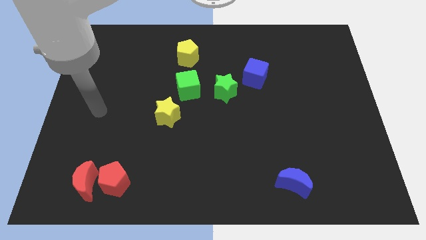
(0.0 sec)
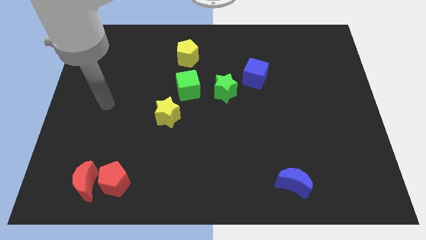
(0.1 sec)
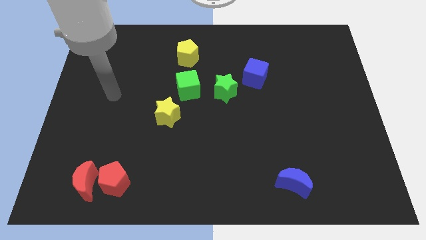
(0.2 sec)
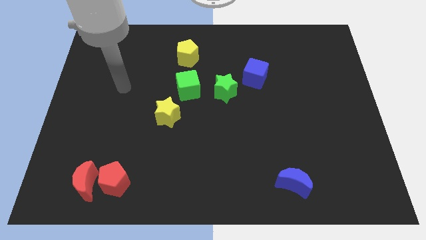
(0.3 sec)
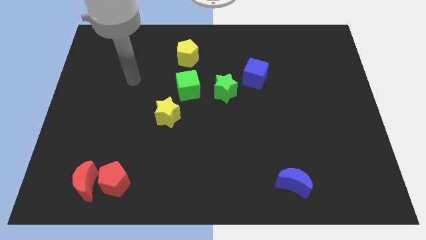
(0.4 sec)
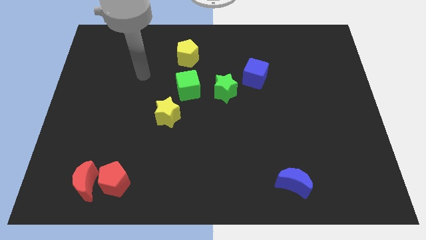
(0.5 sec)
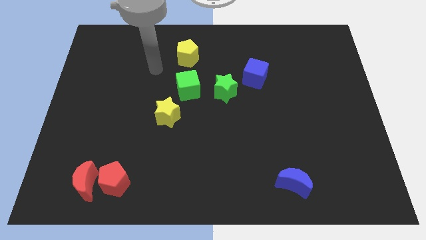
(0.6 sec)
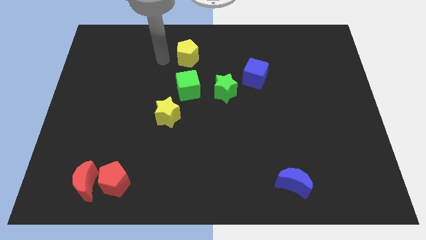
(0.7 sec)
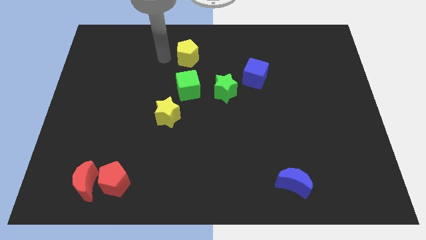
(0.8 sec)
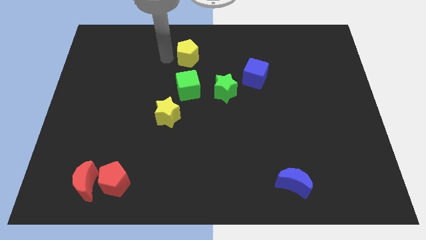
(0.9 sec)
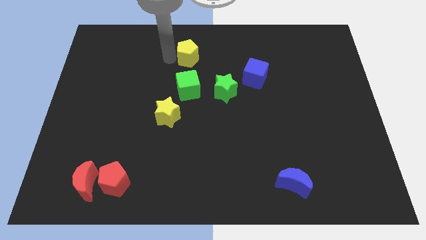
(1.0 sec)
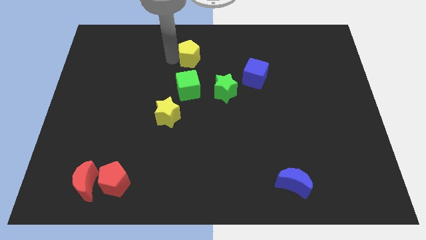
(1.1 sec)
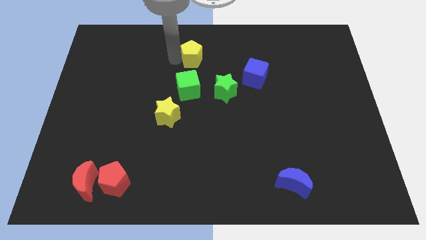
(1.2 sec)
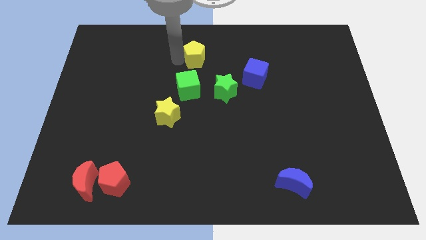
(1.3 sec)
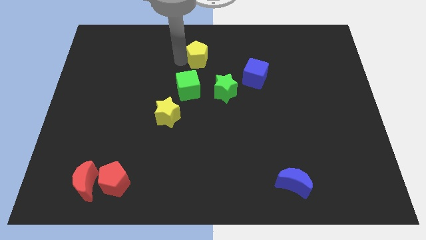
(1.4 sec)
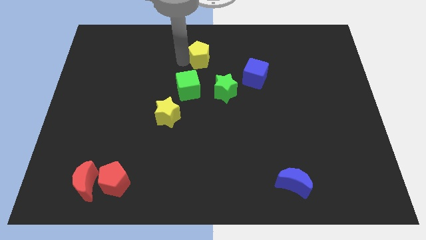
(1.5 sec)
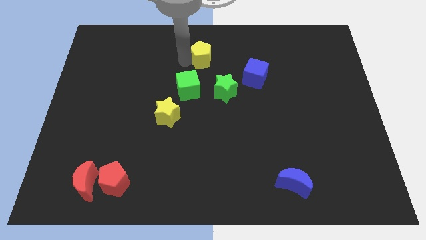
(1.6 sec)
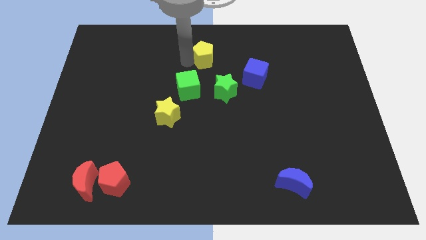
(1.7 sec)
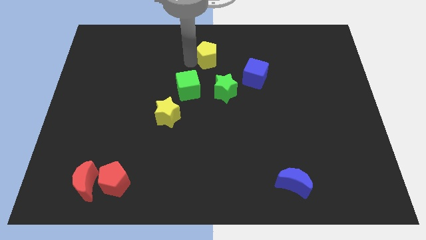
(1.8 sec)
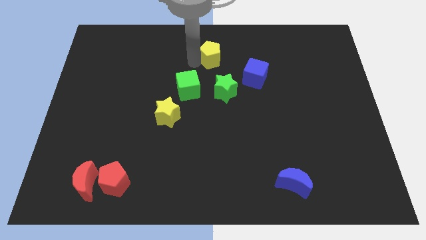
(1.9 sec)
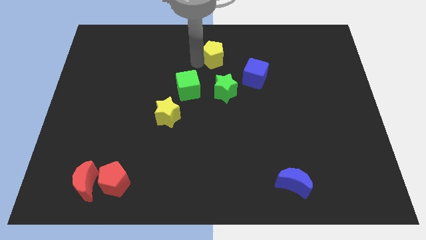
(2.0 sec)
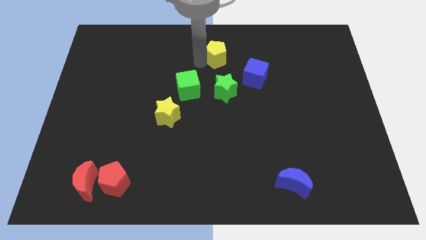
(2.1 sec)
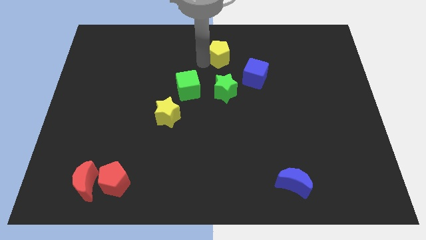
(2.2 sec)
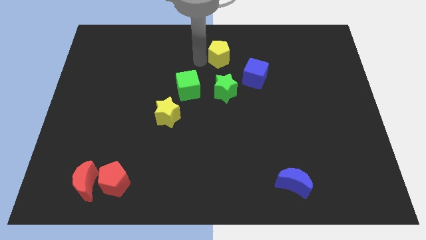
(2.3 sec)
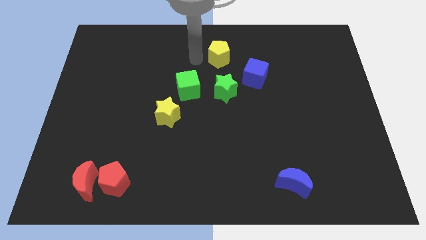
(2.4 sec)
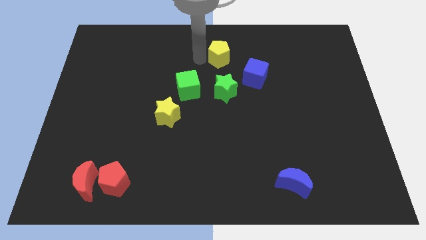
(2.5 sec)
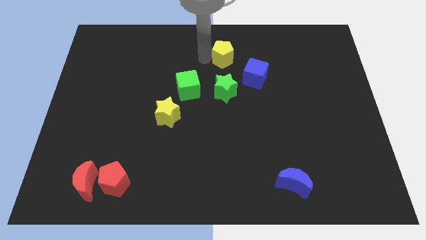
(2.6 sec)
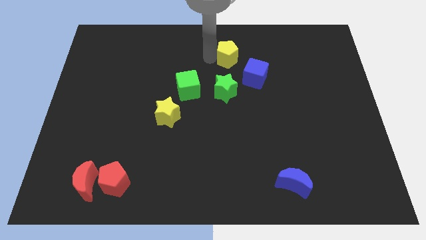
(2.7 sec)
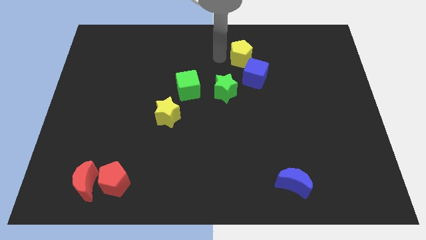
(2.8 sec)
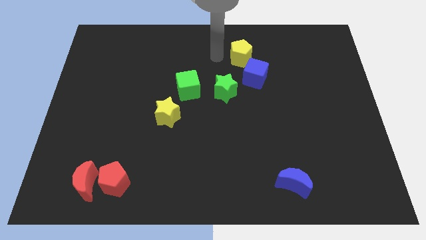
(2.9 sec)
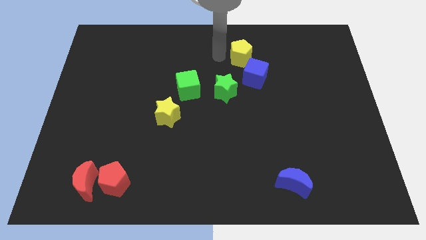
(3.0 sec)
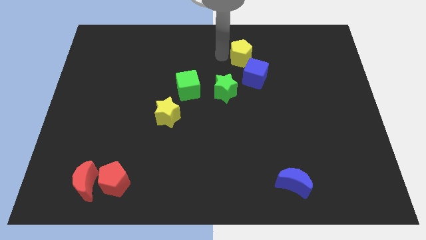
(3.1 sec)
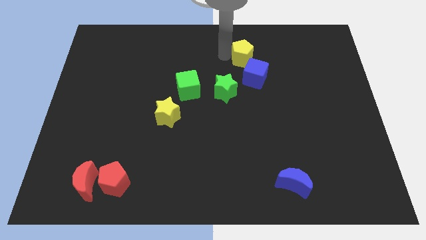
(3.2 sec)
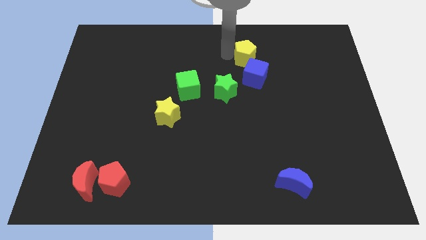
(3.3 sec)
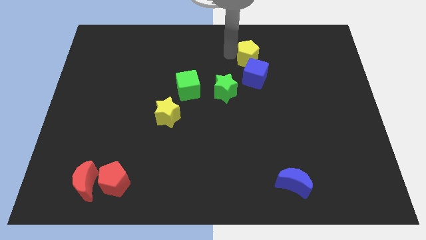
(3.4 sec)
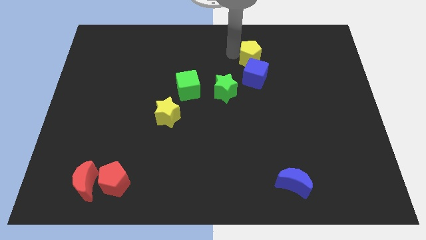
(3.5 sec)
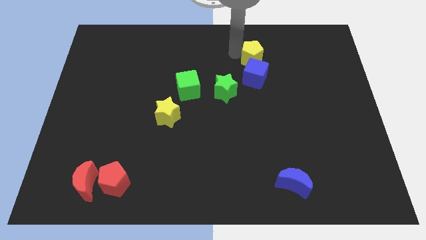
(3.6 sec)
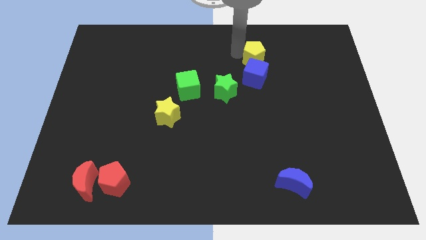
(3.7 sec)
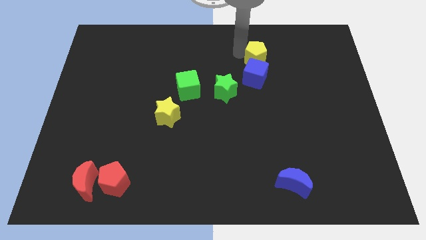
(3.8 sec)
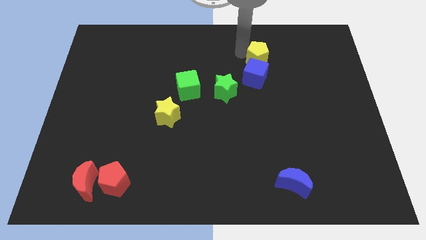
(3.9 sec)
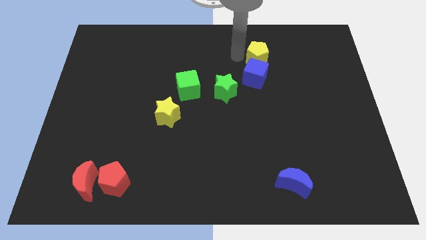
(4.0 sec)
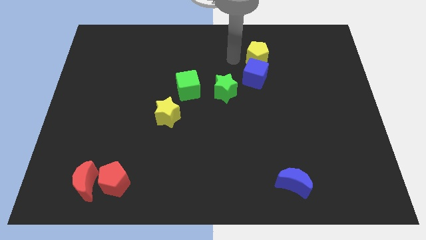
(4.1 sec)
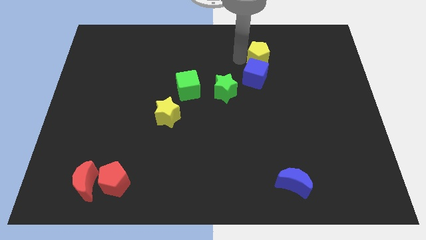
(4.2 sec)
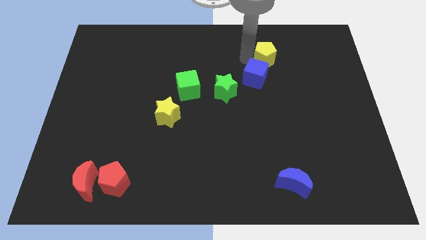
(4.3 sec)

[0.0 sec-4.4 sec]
push the yellow pentagon right

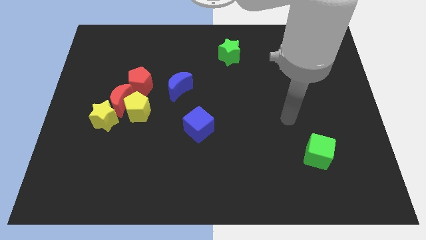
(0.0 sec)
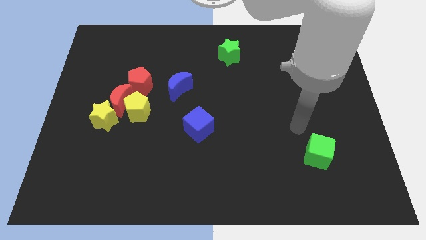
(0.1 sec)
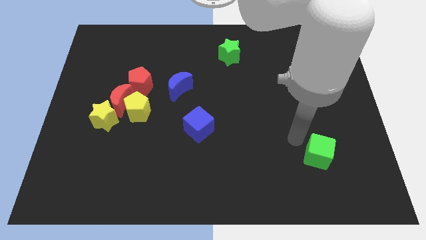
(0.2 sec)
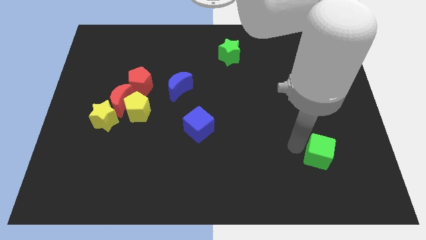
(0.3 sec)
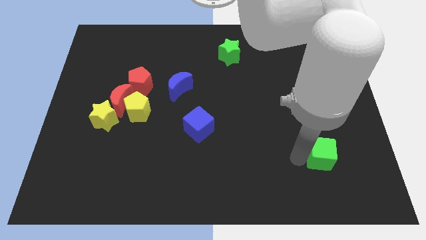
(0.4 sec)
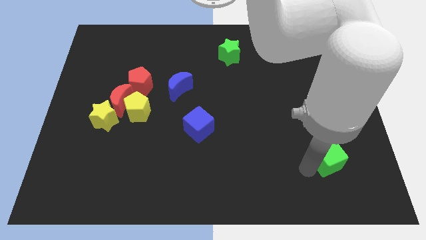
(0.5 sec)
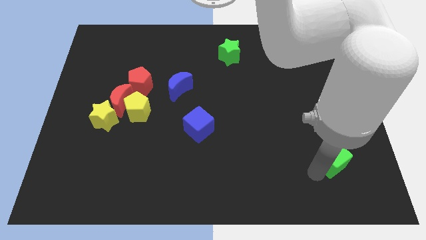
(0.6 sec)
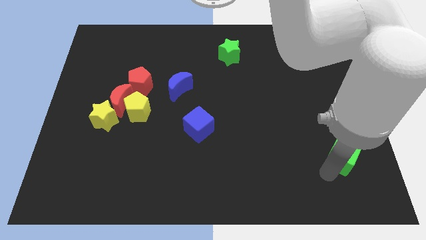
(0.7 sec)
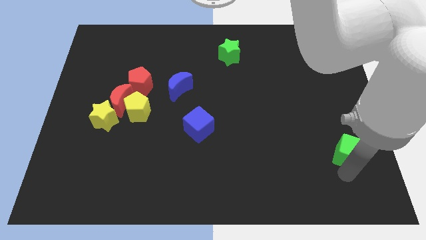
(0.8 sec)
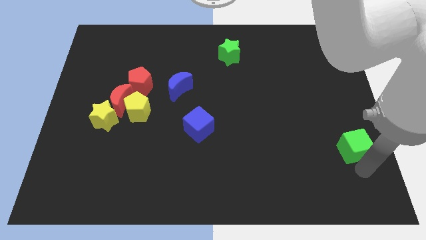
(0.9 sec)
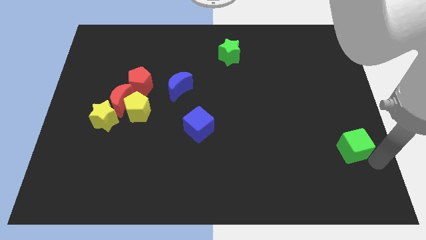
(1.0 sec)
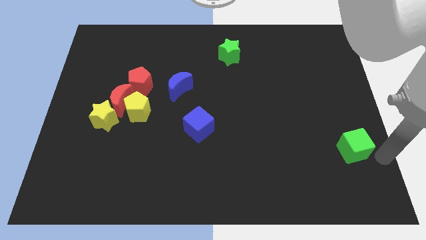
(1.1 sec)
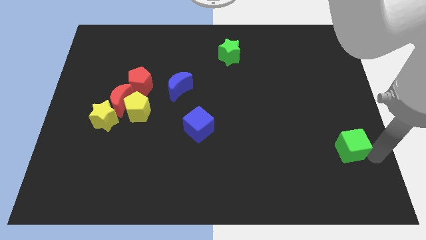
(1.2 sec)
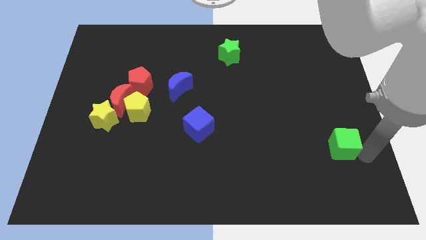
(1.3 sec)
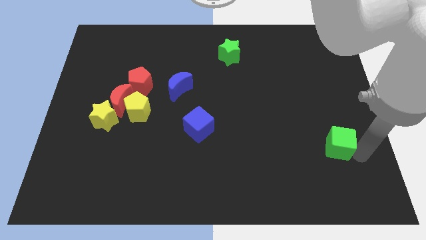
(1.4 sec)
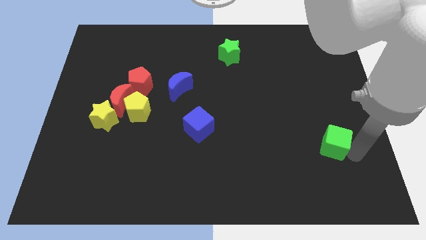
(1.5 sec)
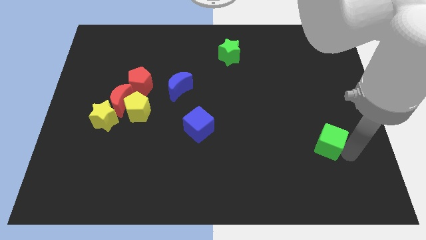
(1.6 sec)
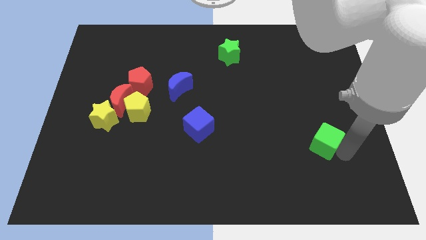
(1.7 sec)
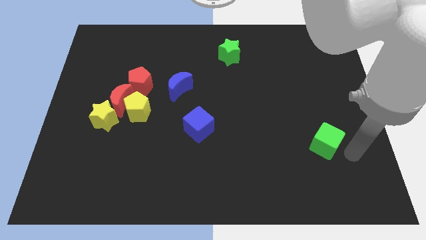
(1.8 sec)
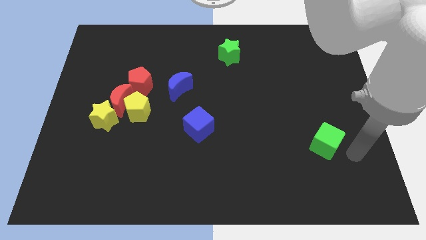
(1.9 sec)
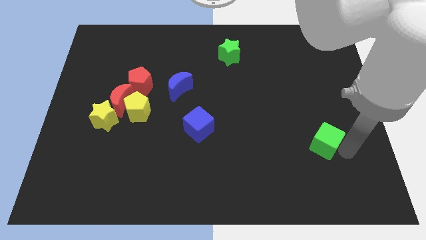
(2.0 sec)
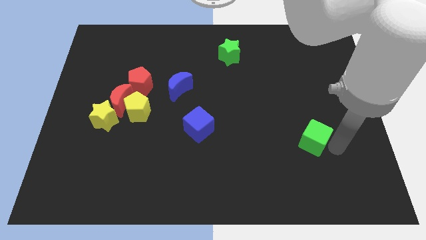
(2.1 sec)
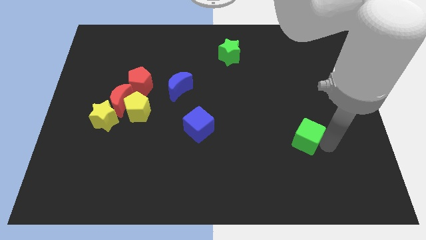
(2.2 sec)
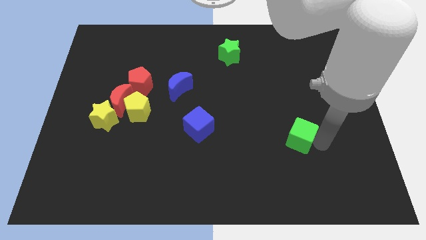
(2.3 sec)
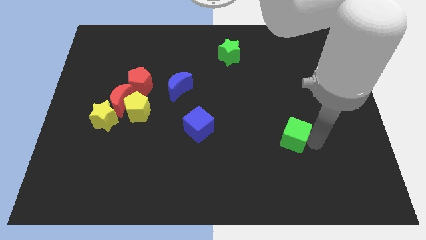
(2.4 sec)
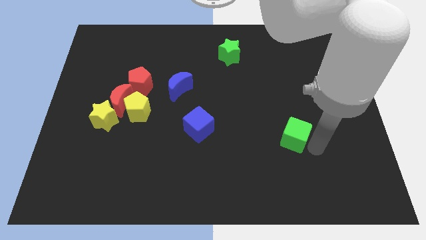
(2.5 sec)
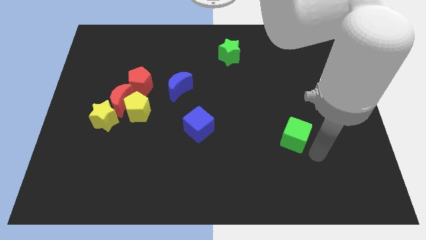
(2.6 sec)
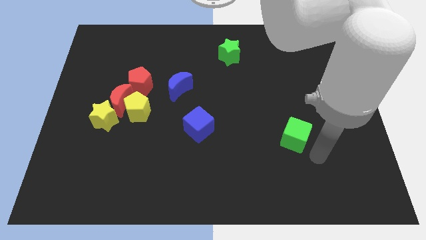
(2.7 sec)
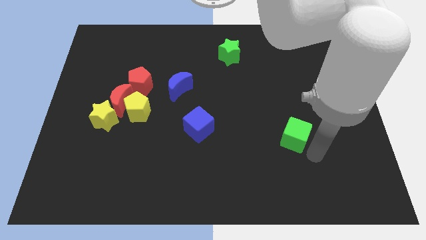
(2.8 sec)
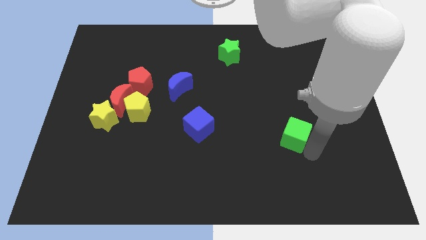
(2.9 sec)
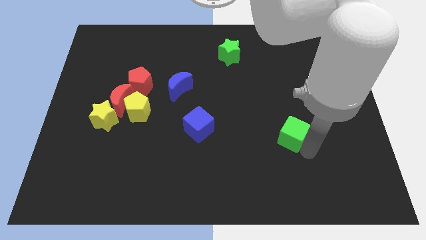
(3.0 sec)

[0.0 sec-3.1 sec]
push the green cube upwards and then to the left slightly

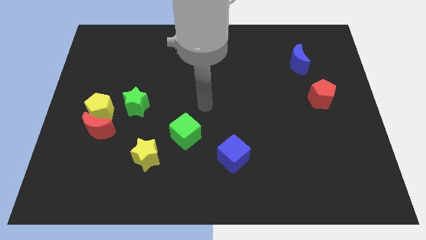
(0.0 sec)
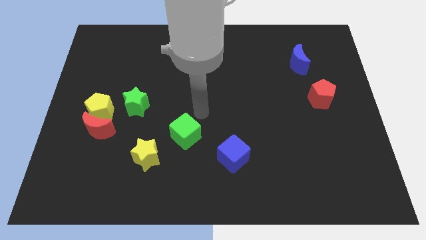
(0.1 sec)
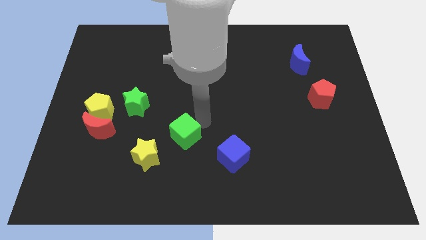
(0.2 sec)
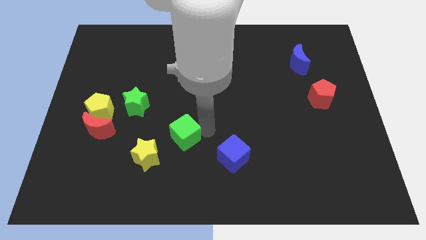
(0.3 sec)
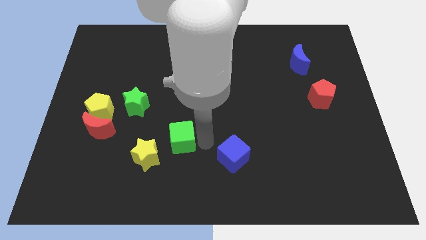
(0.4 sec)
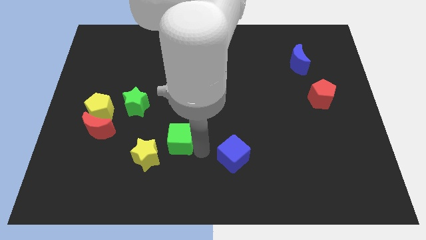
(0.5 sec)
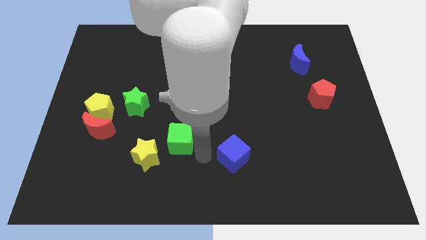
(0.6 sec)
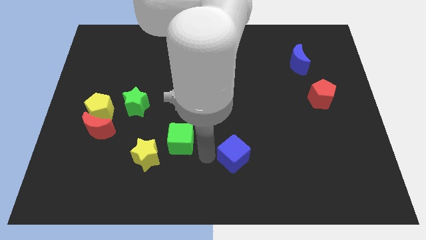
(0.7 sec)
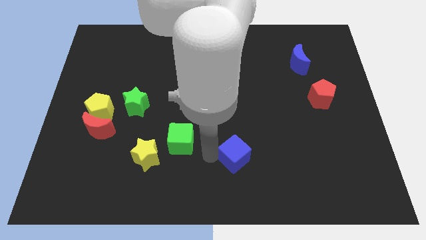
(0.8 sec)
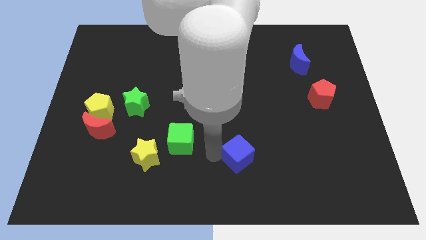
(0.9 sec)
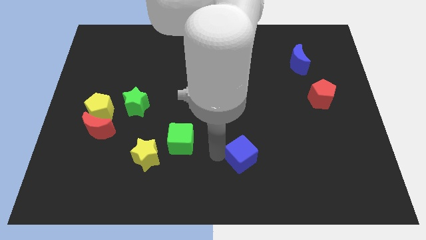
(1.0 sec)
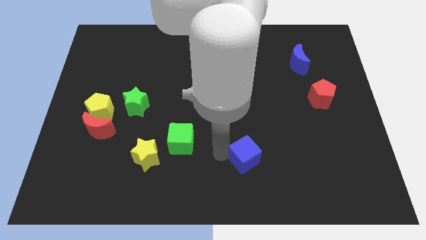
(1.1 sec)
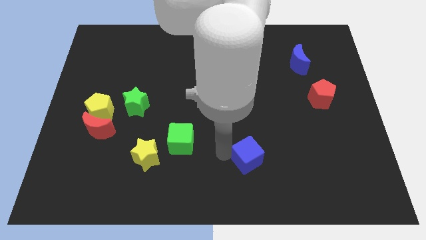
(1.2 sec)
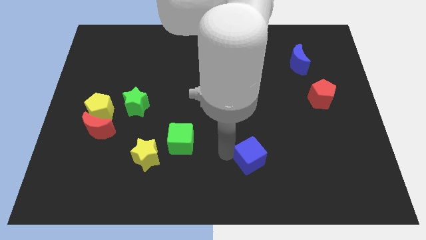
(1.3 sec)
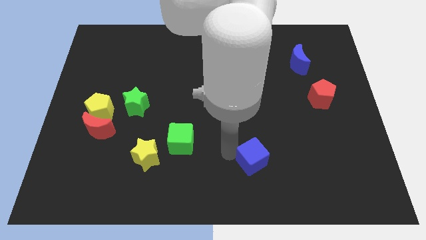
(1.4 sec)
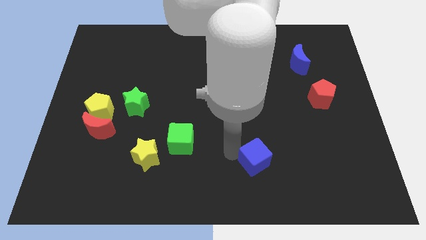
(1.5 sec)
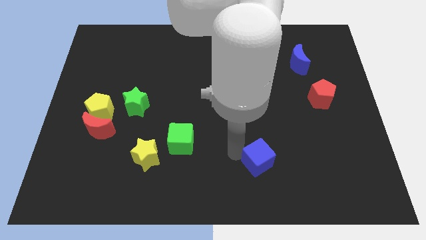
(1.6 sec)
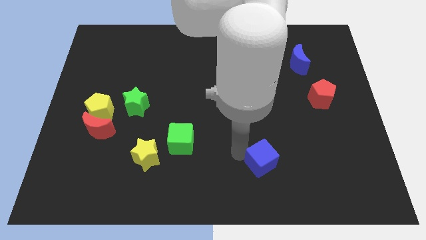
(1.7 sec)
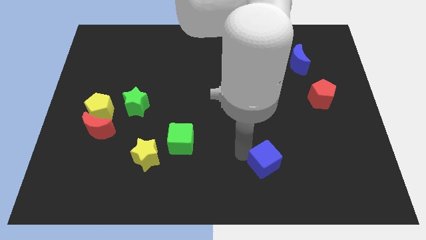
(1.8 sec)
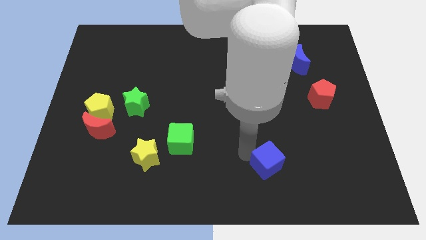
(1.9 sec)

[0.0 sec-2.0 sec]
slide the blue cube to the right a bit
